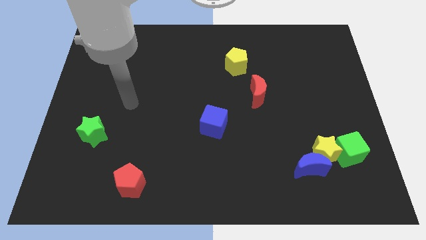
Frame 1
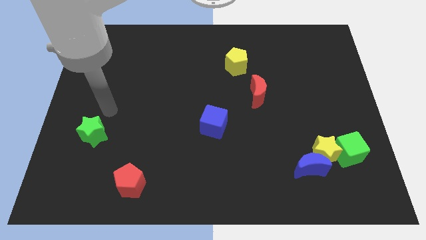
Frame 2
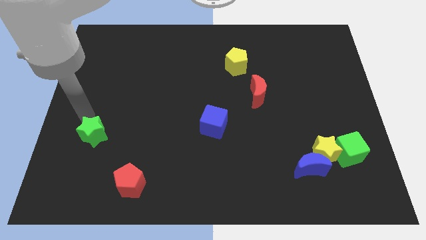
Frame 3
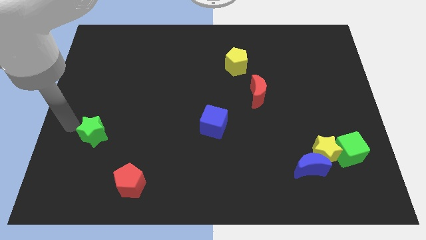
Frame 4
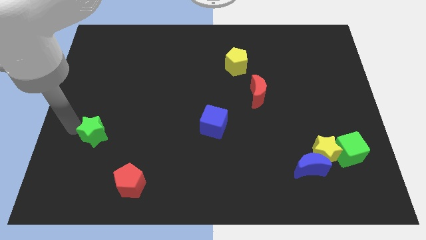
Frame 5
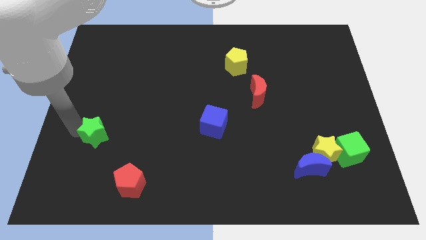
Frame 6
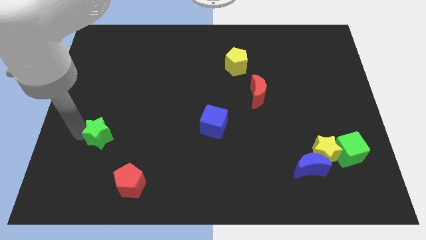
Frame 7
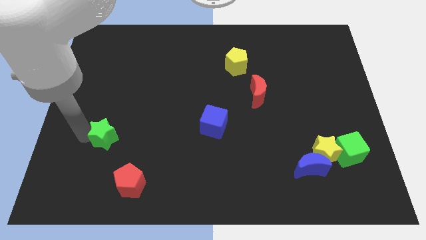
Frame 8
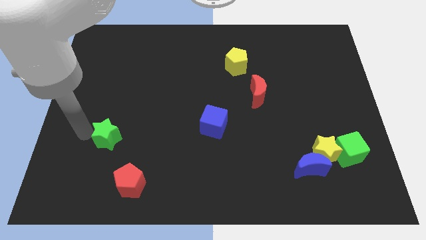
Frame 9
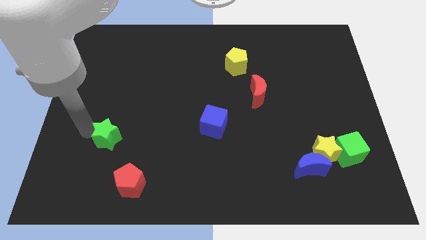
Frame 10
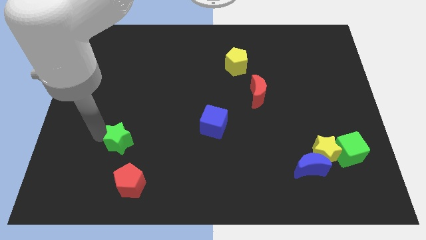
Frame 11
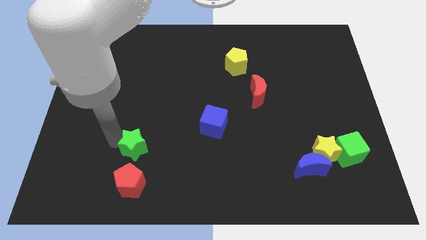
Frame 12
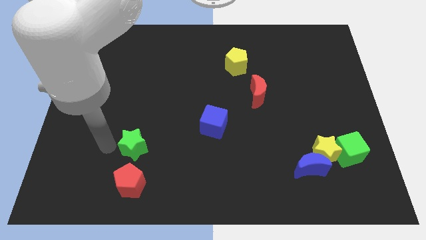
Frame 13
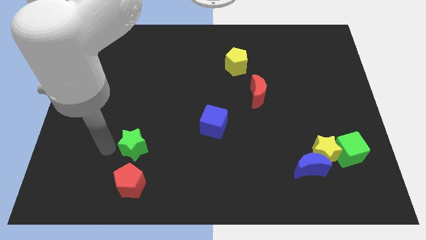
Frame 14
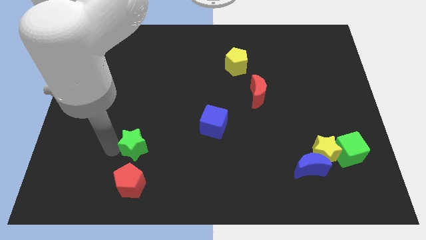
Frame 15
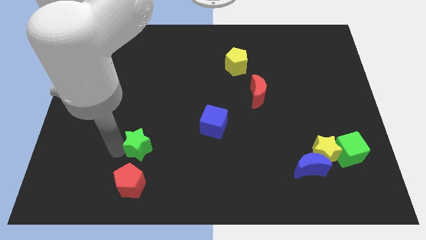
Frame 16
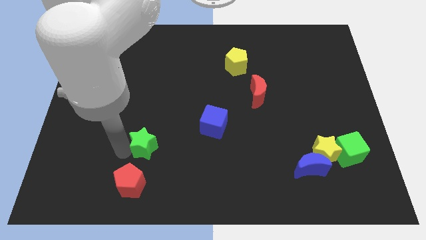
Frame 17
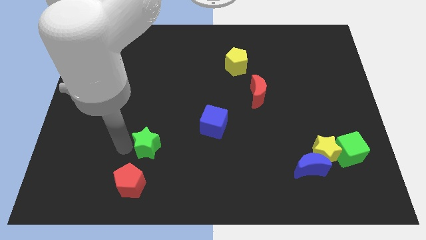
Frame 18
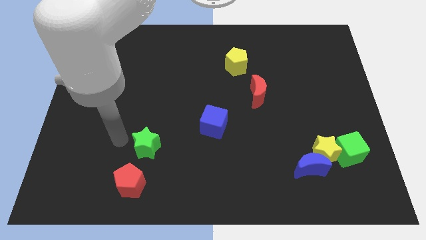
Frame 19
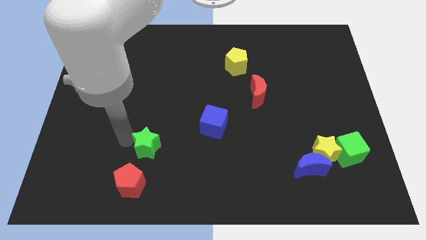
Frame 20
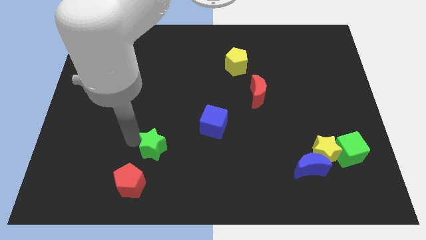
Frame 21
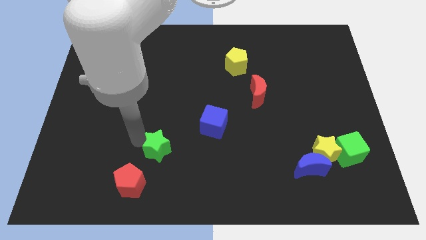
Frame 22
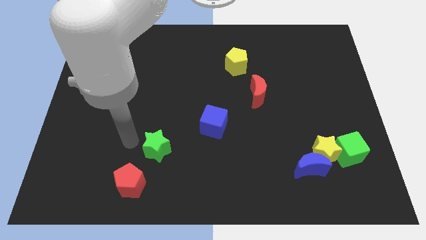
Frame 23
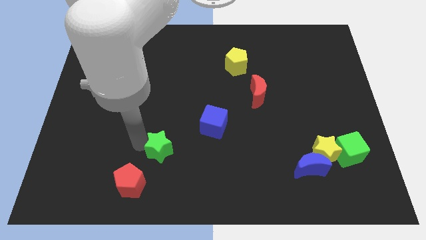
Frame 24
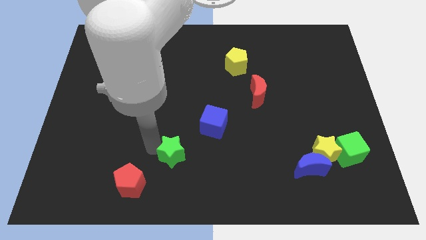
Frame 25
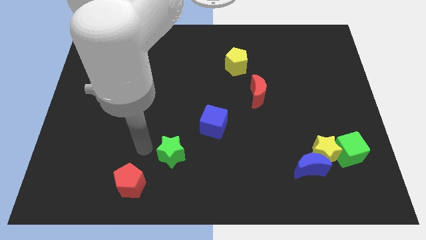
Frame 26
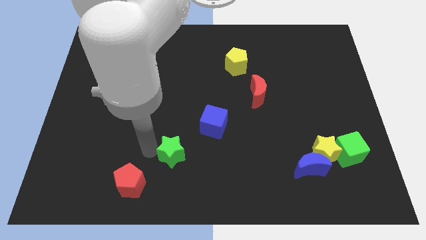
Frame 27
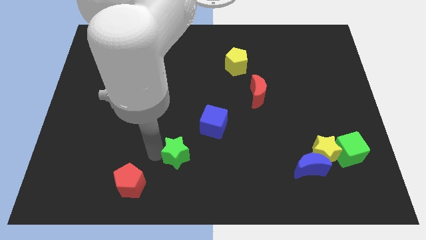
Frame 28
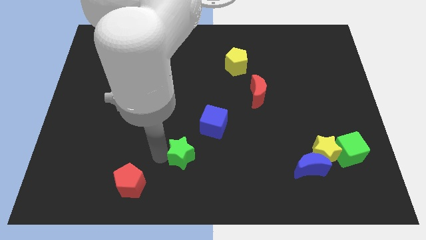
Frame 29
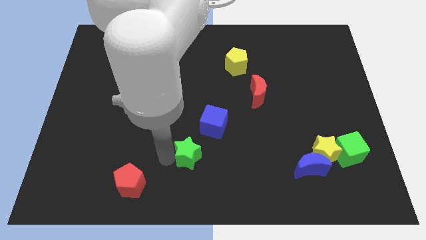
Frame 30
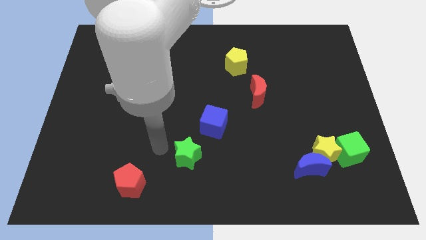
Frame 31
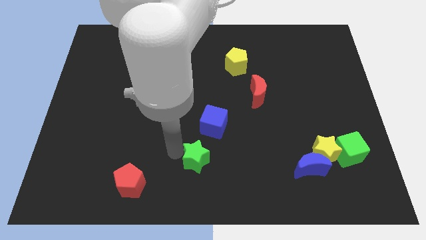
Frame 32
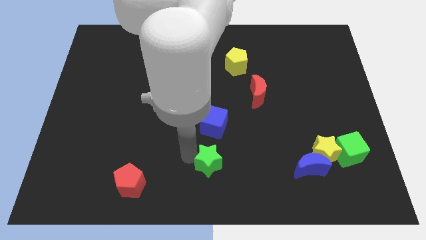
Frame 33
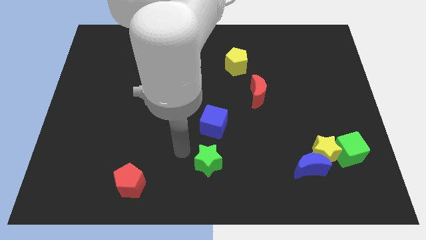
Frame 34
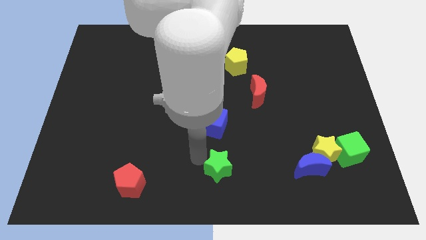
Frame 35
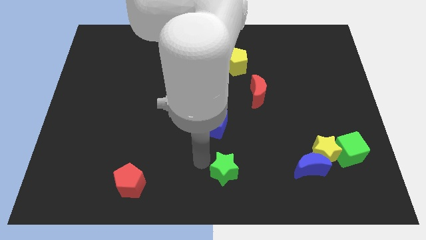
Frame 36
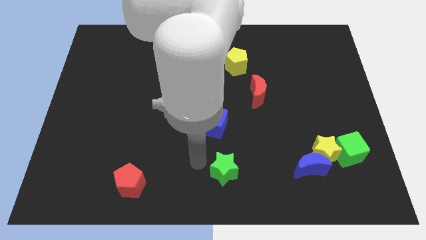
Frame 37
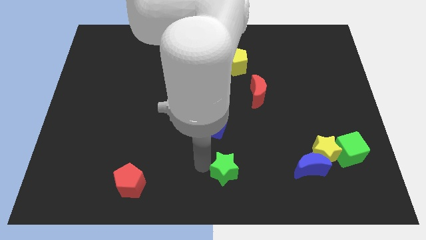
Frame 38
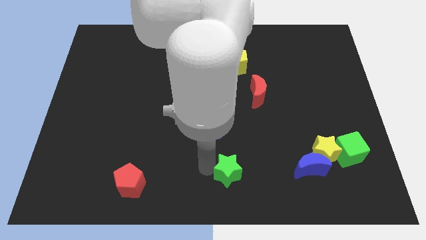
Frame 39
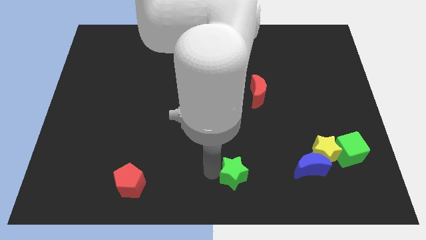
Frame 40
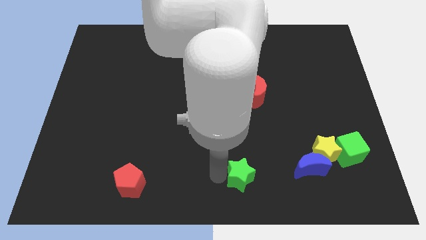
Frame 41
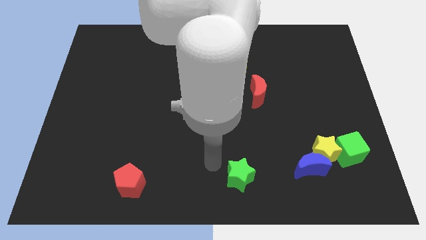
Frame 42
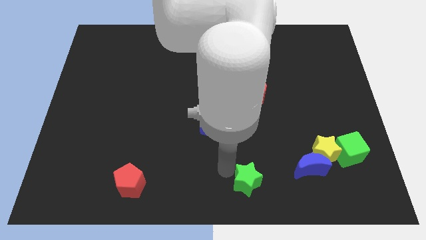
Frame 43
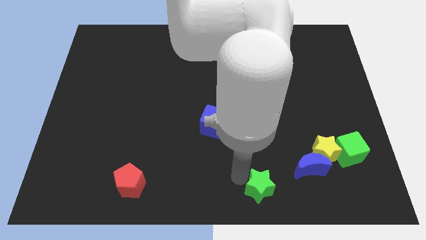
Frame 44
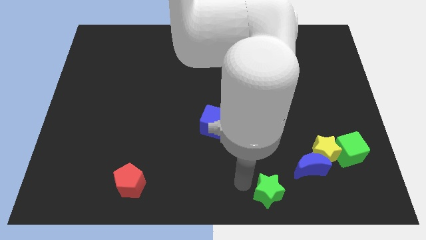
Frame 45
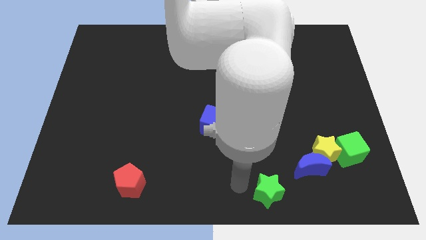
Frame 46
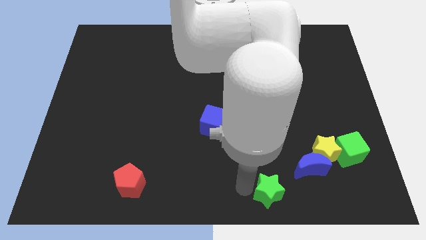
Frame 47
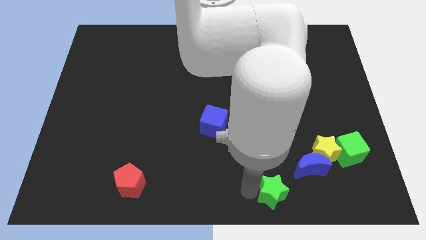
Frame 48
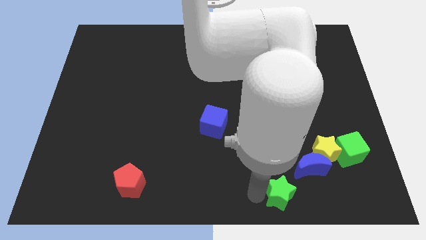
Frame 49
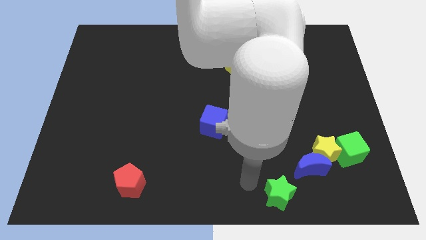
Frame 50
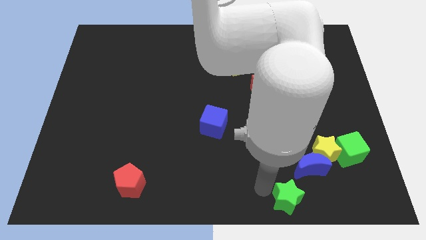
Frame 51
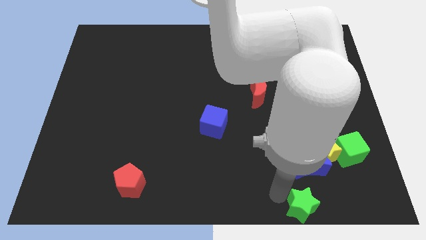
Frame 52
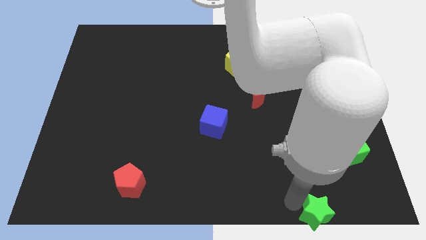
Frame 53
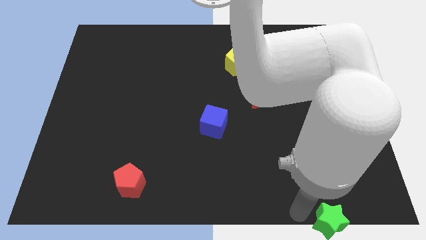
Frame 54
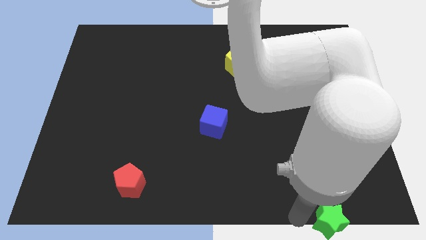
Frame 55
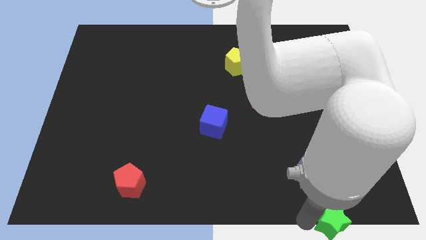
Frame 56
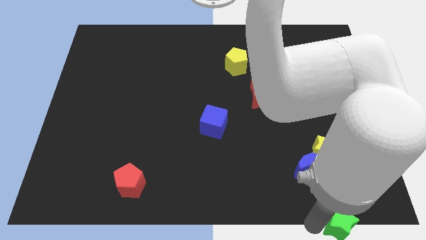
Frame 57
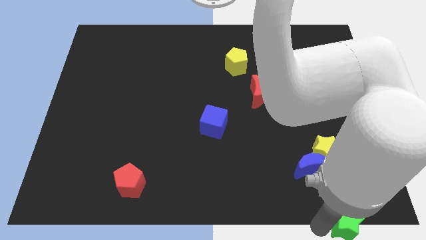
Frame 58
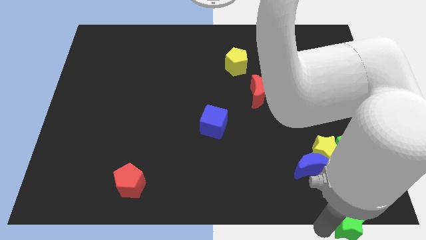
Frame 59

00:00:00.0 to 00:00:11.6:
move the green star to the bottom right of the board
